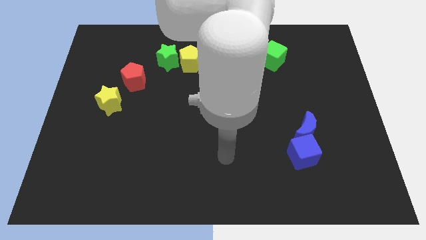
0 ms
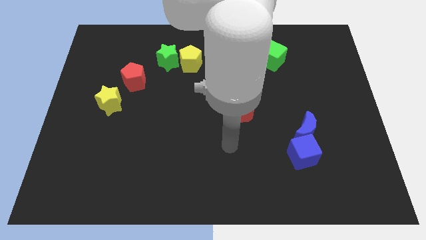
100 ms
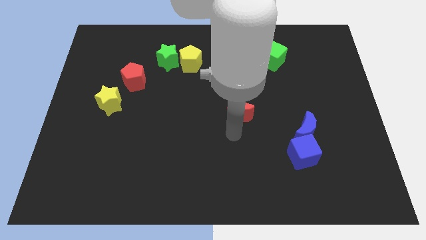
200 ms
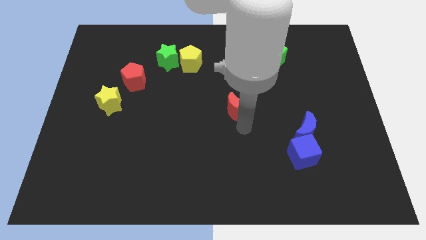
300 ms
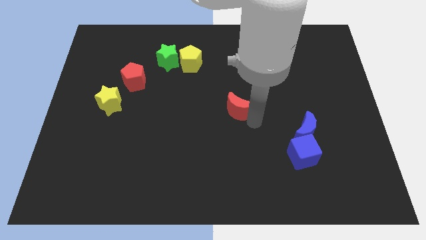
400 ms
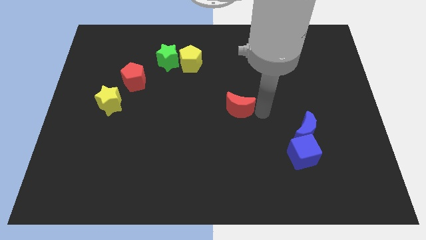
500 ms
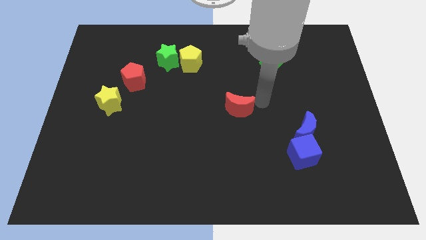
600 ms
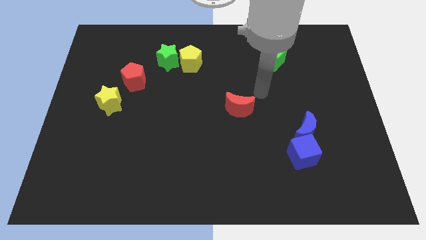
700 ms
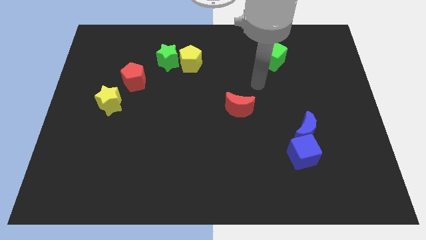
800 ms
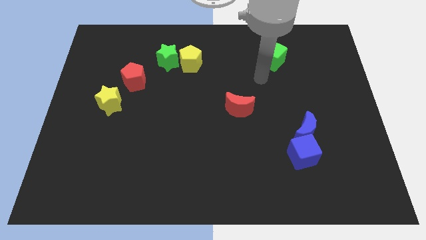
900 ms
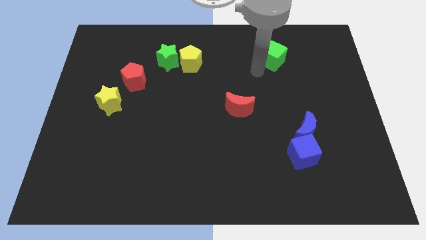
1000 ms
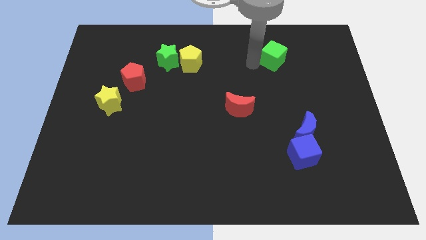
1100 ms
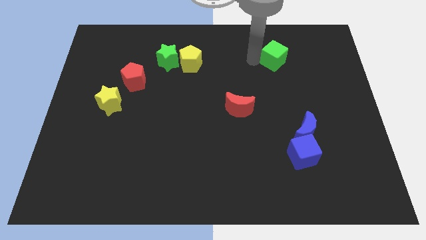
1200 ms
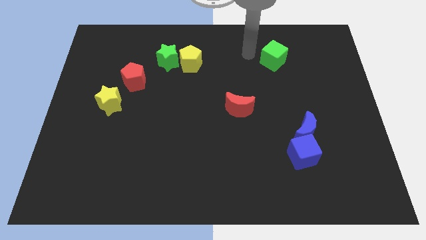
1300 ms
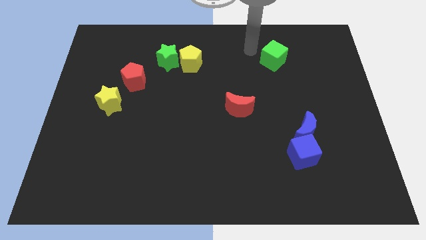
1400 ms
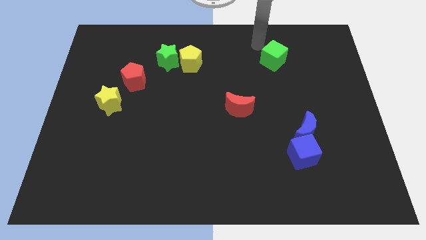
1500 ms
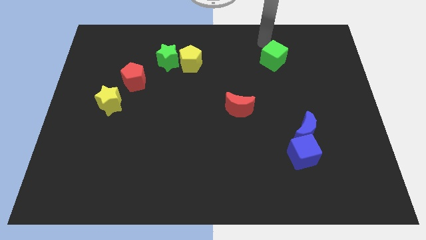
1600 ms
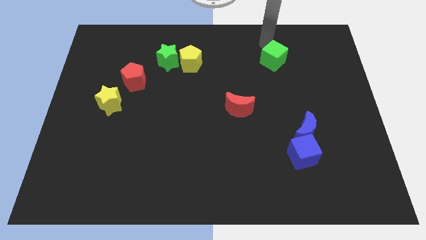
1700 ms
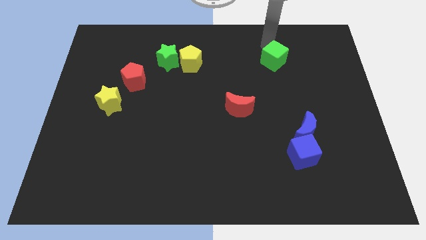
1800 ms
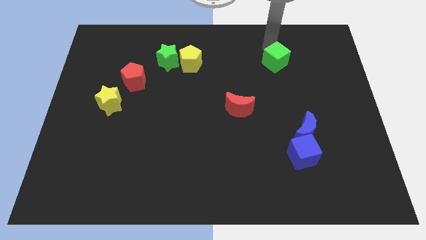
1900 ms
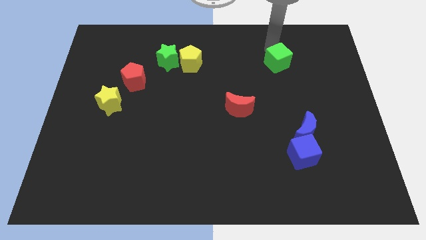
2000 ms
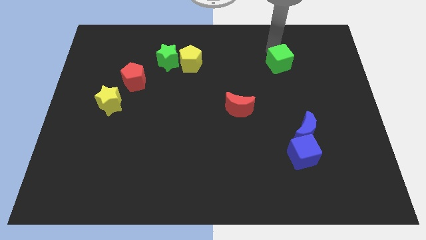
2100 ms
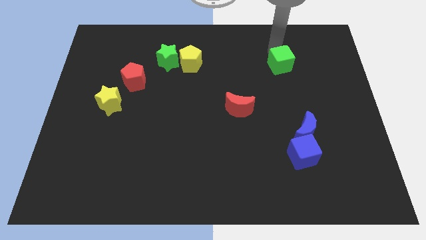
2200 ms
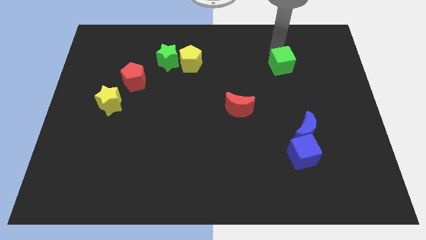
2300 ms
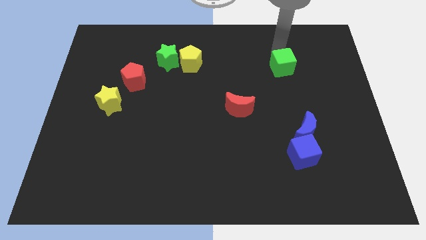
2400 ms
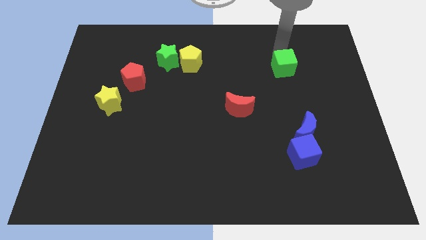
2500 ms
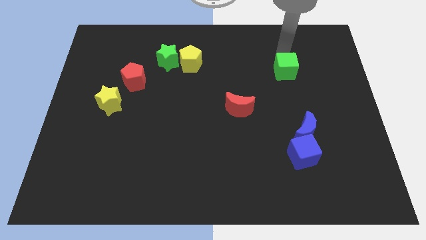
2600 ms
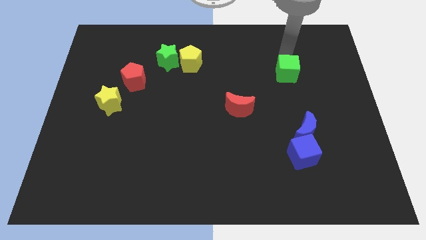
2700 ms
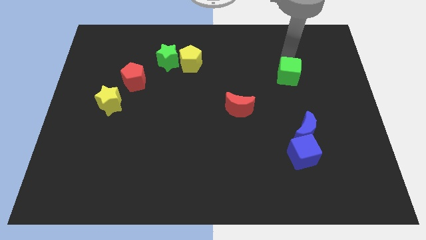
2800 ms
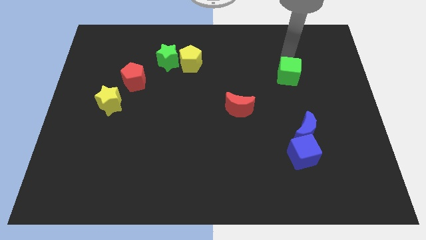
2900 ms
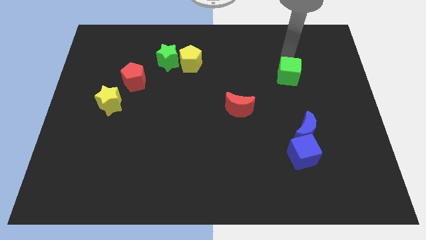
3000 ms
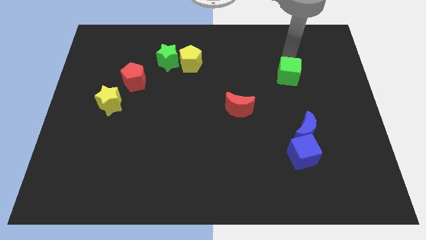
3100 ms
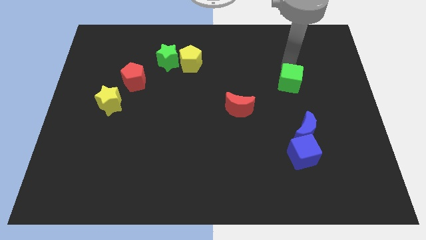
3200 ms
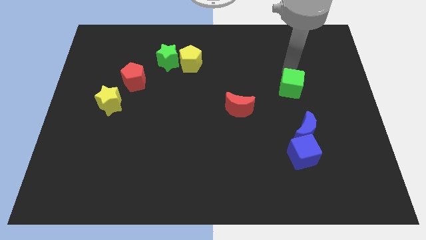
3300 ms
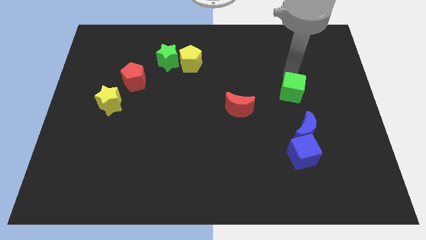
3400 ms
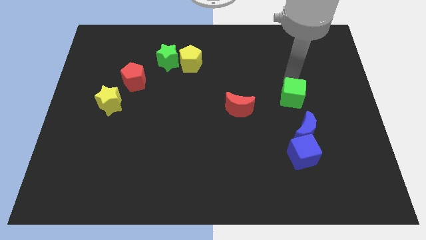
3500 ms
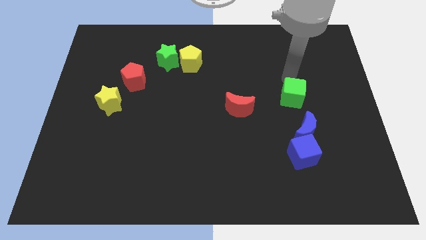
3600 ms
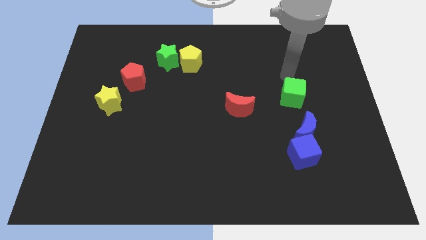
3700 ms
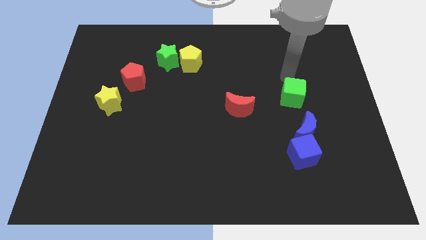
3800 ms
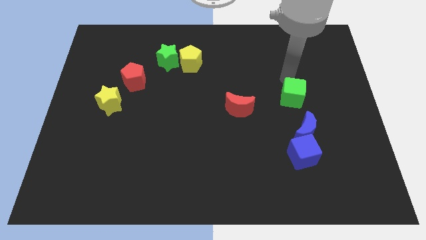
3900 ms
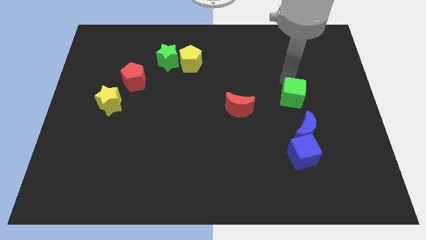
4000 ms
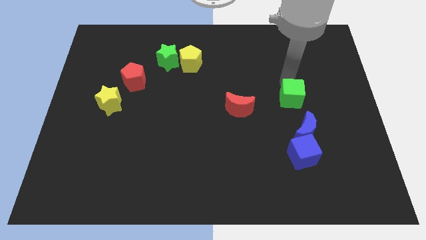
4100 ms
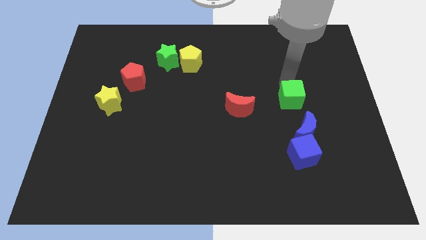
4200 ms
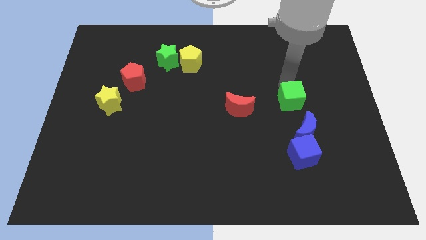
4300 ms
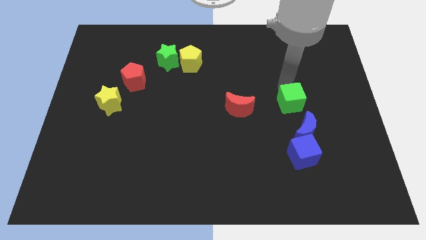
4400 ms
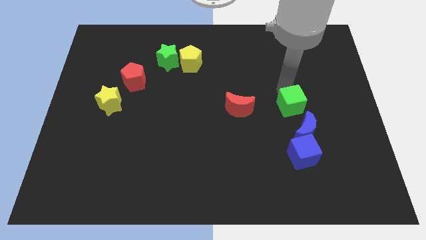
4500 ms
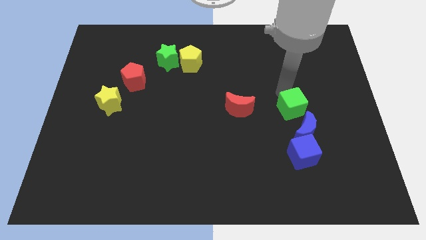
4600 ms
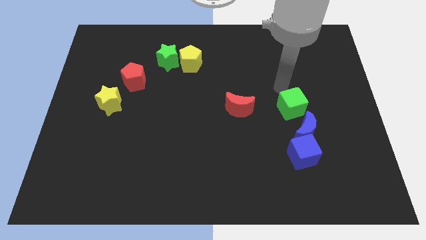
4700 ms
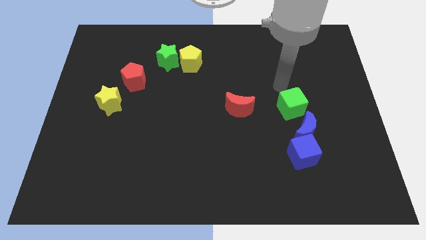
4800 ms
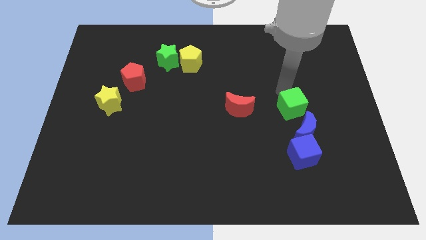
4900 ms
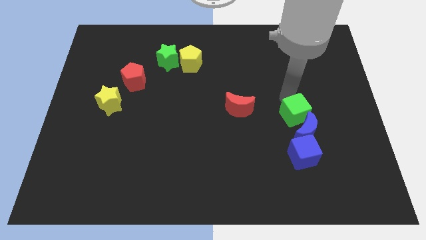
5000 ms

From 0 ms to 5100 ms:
slide the green cube towards the blue moon
